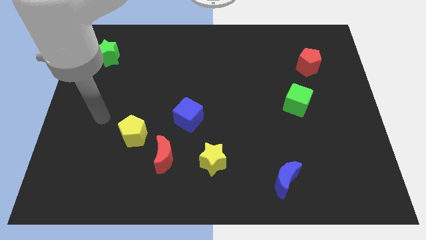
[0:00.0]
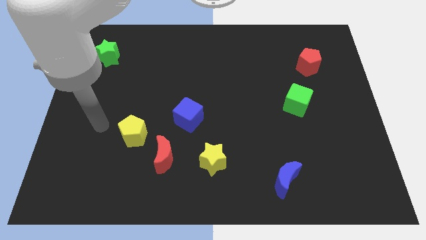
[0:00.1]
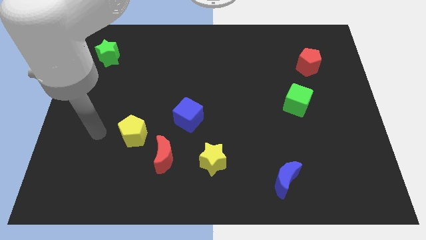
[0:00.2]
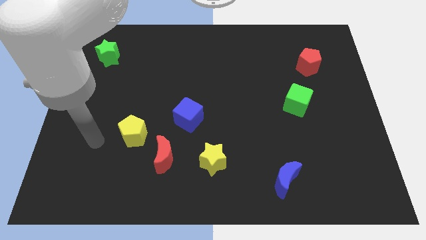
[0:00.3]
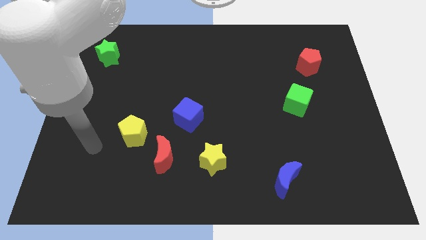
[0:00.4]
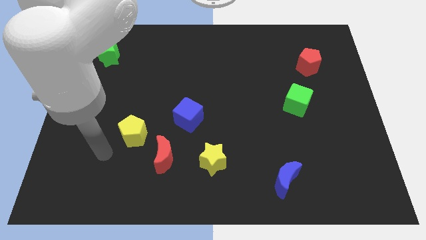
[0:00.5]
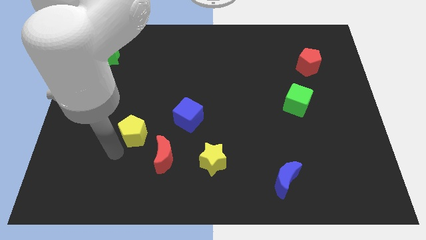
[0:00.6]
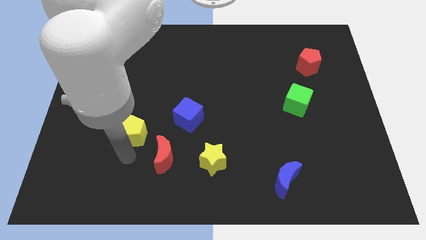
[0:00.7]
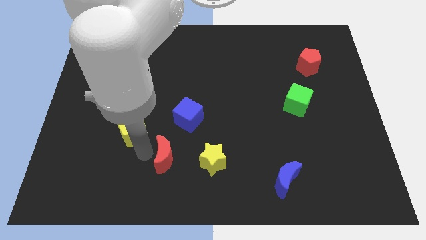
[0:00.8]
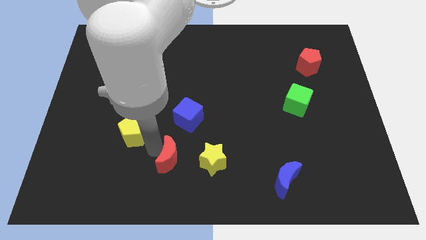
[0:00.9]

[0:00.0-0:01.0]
pull the yellow pentagon apart from the red moon

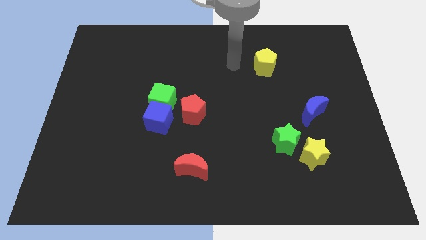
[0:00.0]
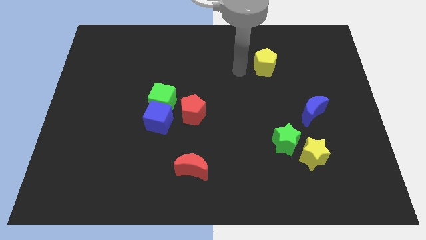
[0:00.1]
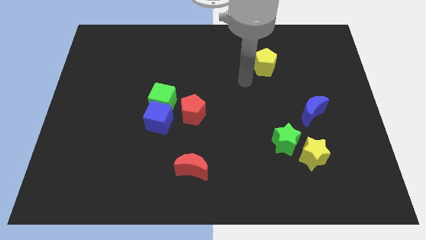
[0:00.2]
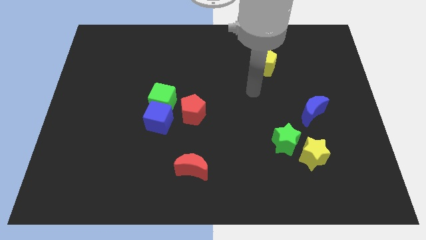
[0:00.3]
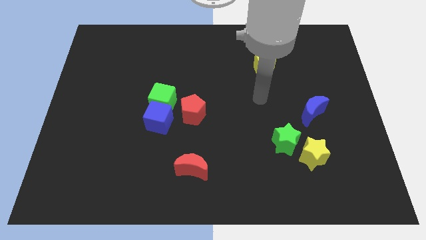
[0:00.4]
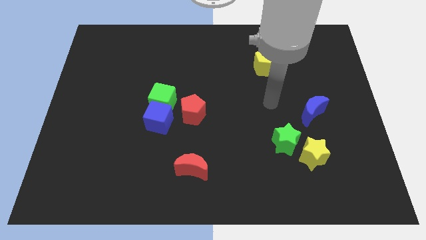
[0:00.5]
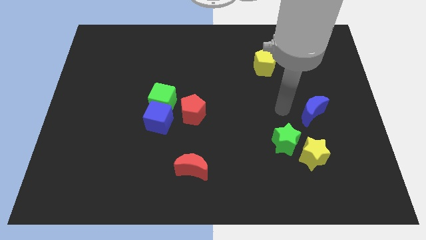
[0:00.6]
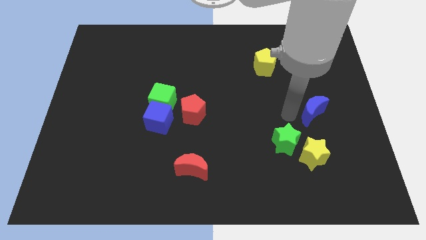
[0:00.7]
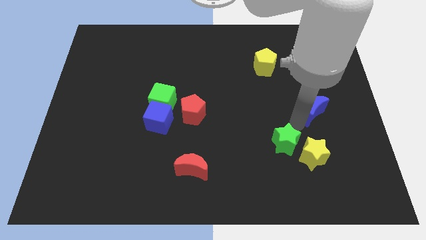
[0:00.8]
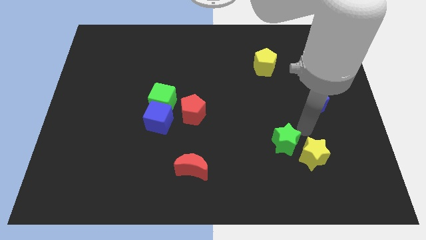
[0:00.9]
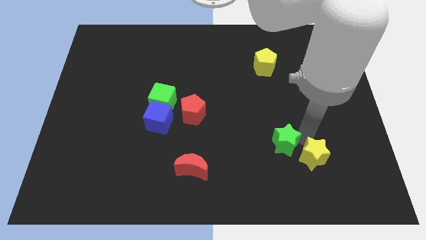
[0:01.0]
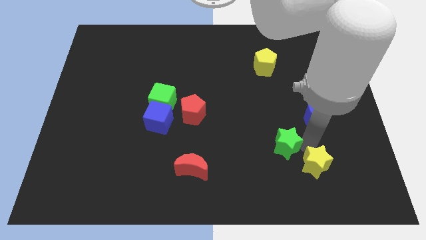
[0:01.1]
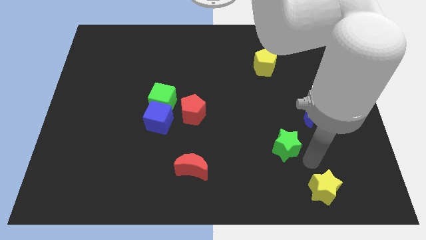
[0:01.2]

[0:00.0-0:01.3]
move the green star away from the yellow star

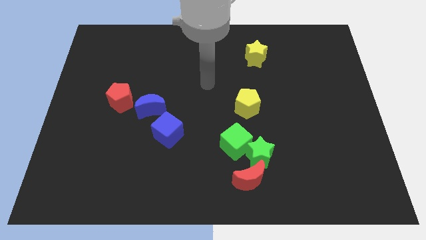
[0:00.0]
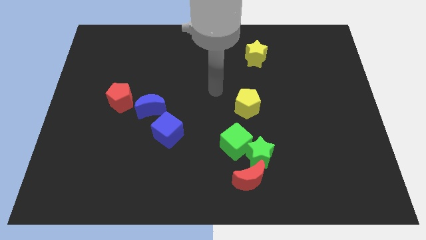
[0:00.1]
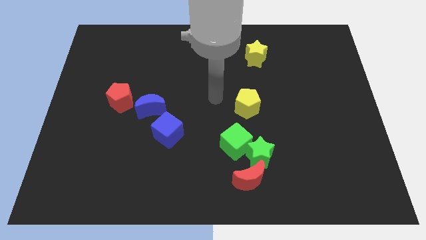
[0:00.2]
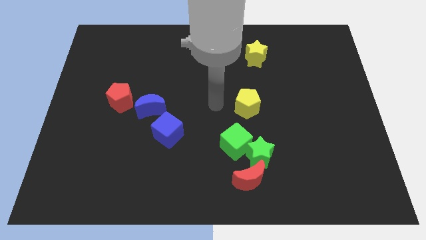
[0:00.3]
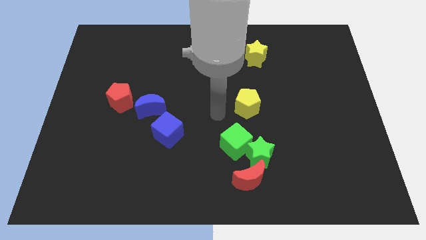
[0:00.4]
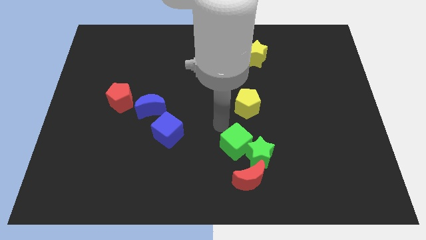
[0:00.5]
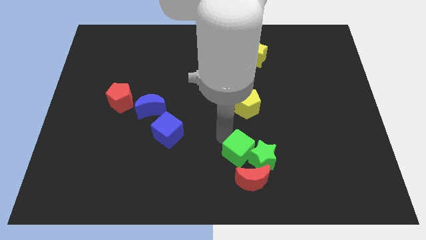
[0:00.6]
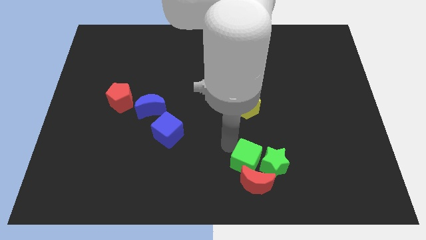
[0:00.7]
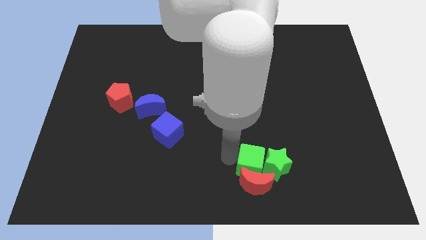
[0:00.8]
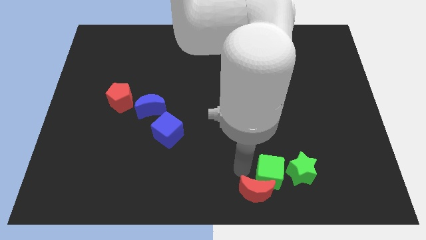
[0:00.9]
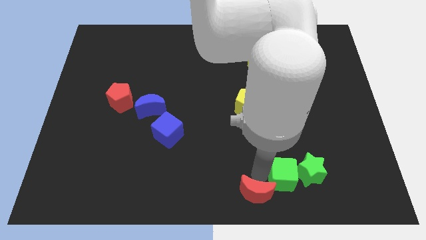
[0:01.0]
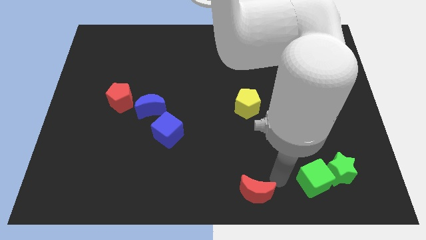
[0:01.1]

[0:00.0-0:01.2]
separate the green star from the red moon and green cube

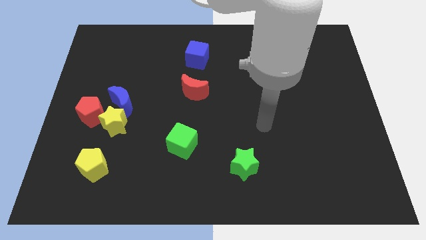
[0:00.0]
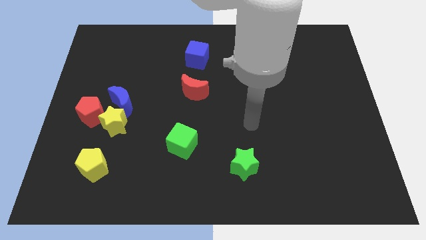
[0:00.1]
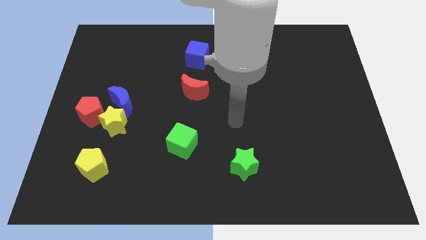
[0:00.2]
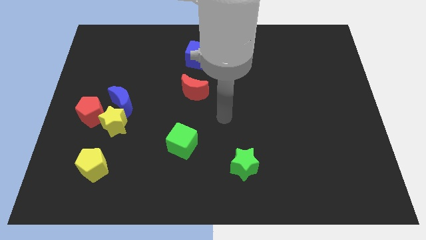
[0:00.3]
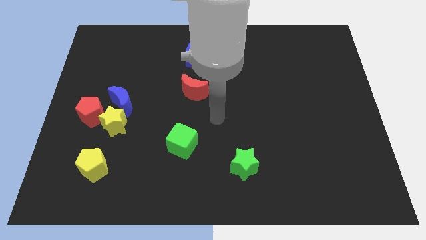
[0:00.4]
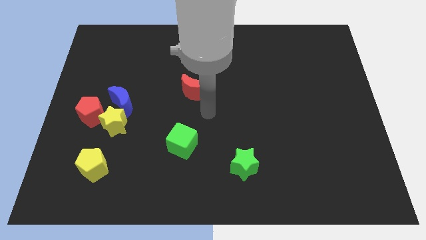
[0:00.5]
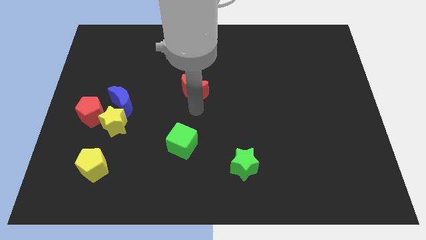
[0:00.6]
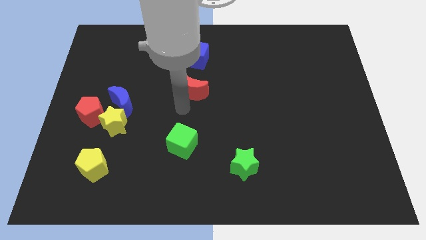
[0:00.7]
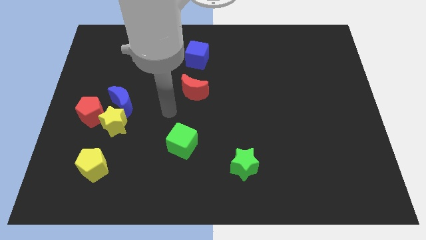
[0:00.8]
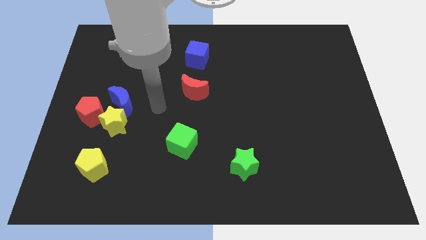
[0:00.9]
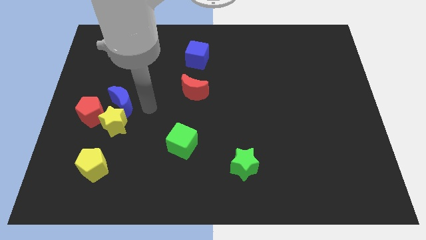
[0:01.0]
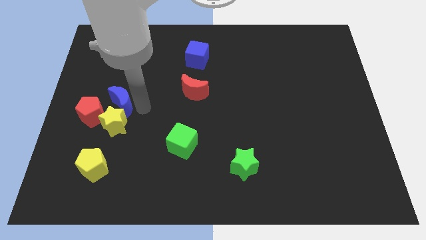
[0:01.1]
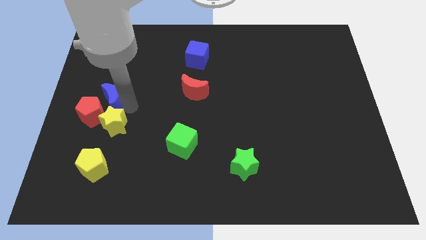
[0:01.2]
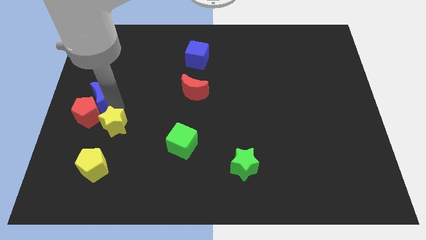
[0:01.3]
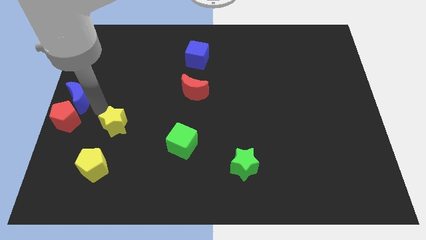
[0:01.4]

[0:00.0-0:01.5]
move the yellow star away from the red pentagon and blue moon

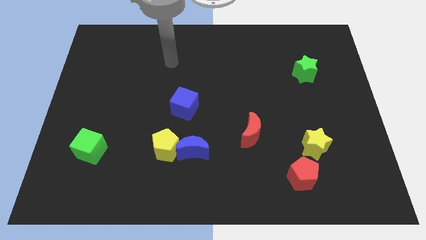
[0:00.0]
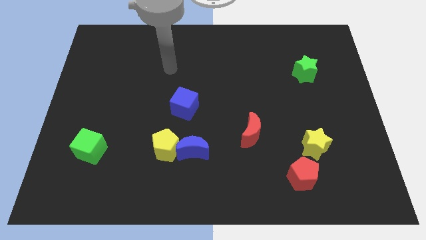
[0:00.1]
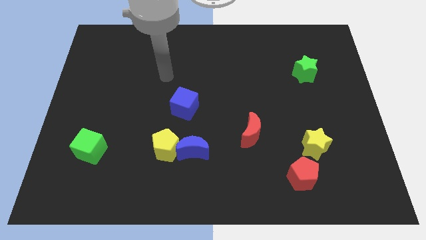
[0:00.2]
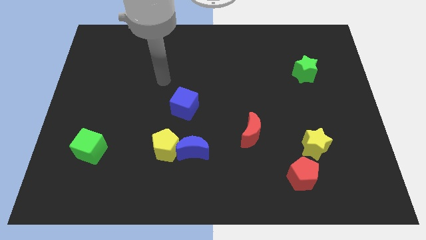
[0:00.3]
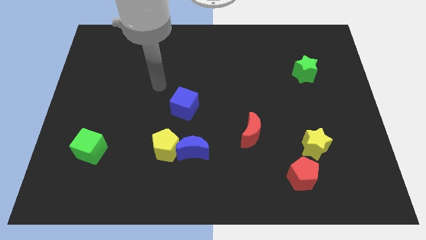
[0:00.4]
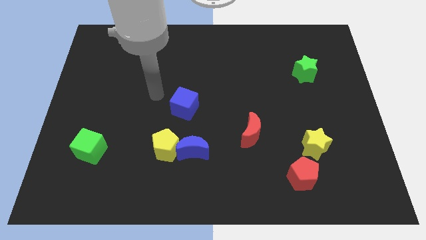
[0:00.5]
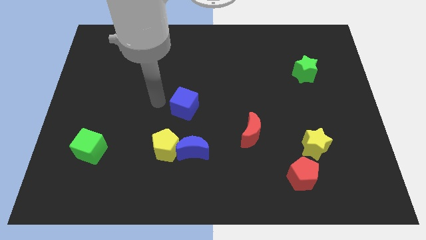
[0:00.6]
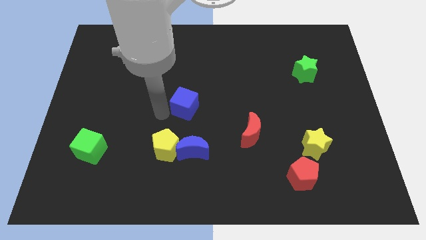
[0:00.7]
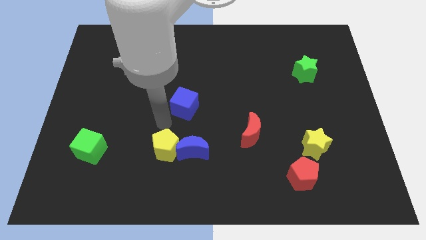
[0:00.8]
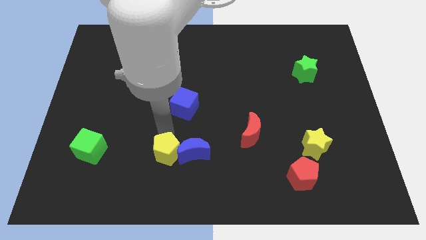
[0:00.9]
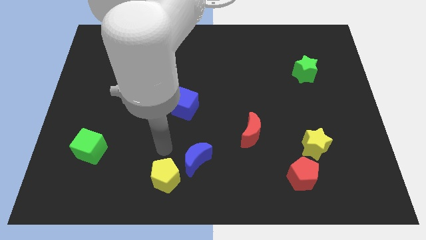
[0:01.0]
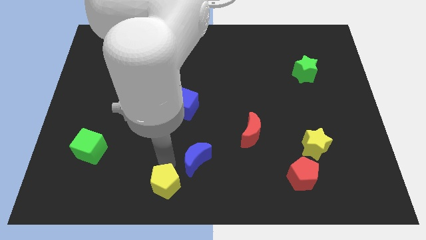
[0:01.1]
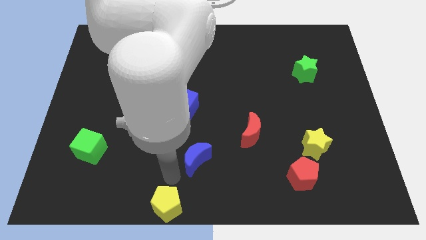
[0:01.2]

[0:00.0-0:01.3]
separate the blue moon from the yellow pentagon

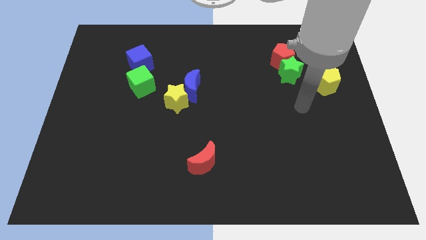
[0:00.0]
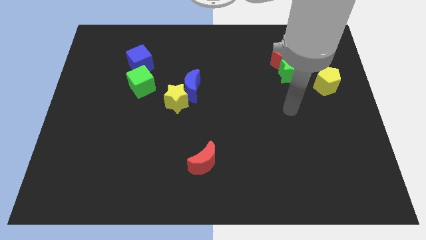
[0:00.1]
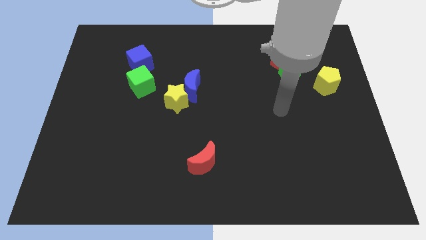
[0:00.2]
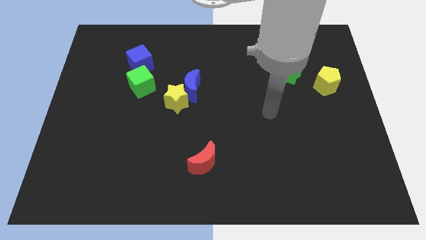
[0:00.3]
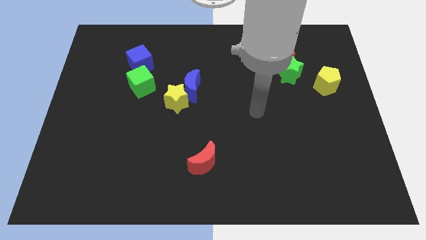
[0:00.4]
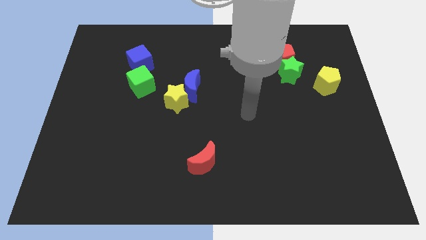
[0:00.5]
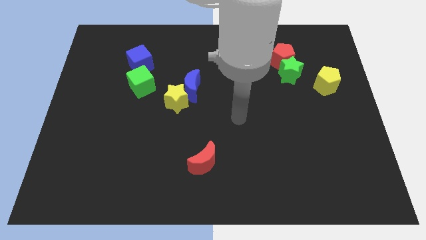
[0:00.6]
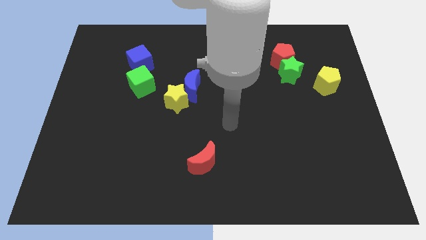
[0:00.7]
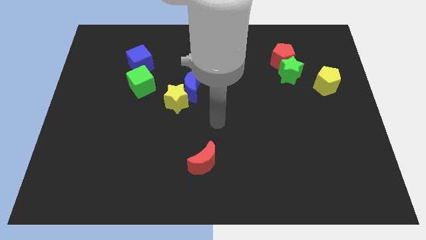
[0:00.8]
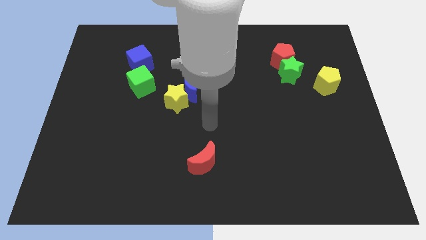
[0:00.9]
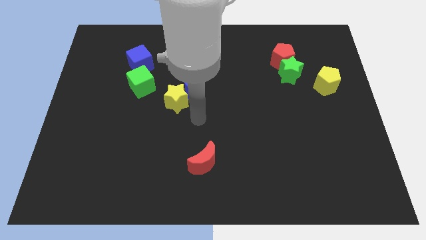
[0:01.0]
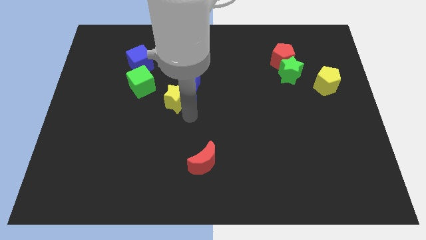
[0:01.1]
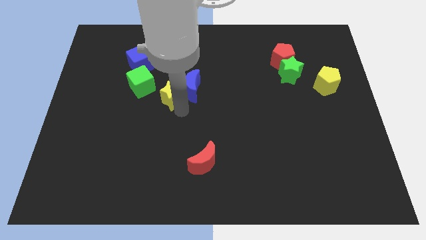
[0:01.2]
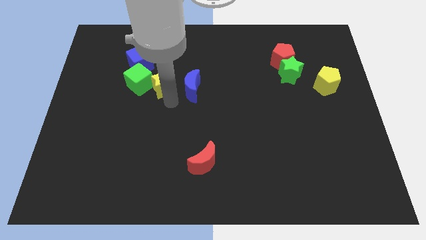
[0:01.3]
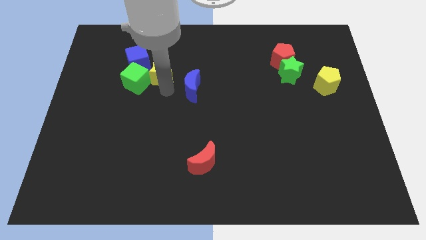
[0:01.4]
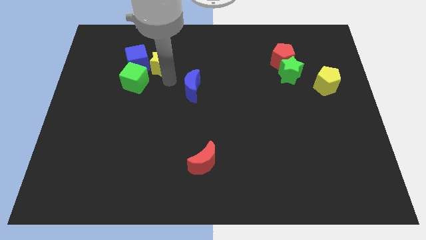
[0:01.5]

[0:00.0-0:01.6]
move the blue moon away from the yellow star

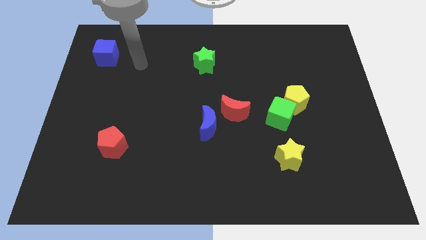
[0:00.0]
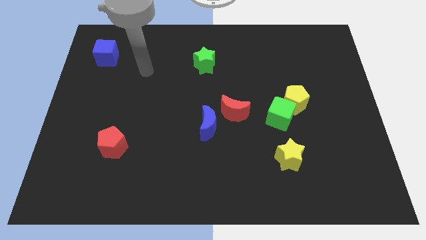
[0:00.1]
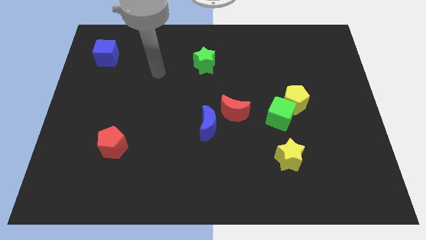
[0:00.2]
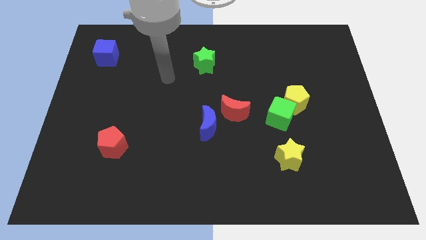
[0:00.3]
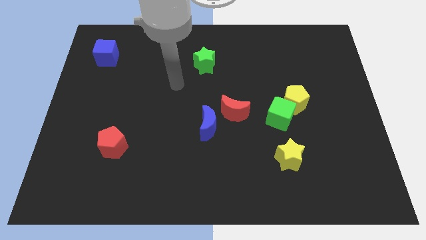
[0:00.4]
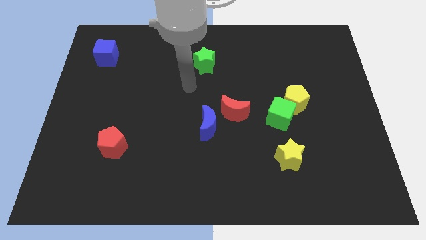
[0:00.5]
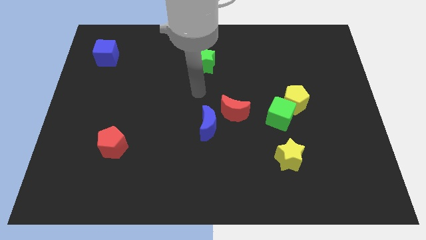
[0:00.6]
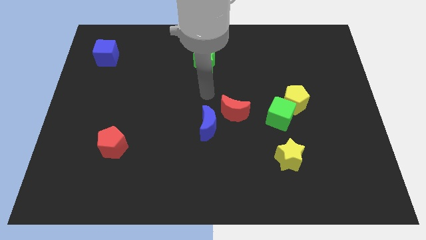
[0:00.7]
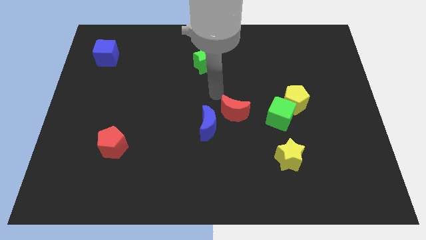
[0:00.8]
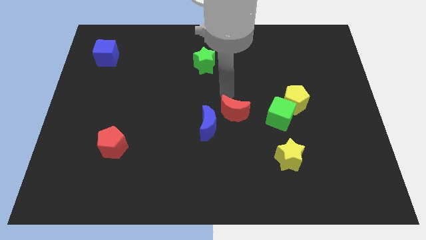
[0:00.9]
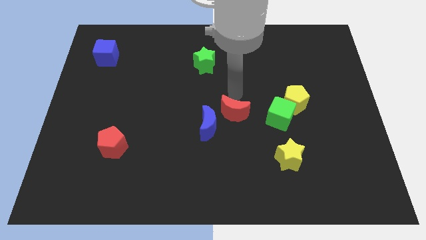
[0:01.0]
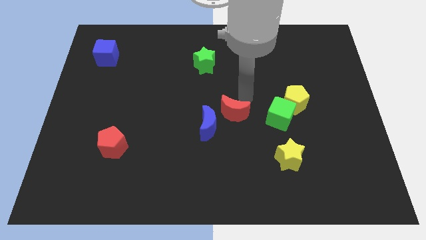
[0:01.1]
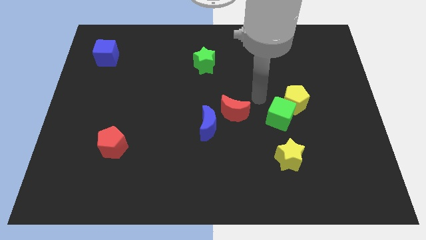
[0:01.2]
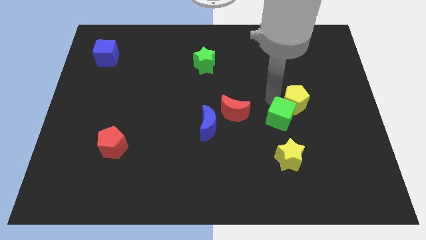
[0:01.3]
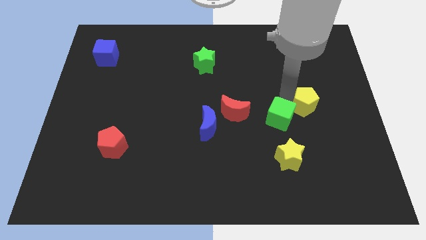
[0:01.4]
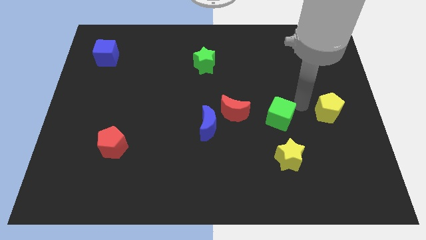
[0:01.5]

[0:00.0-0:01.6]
move the green cube away from the yellow pentagon
